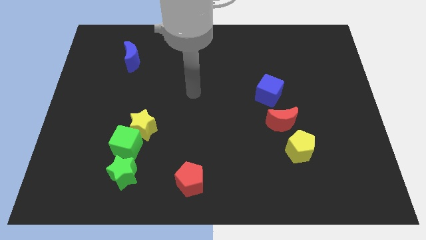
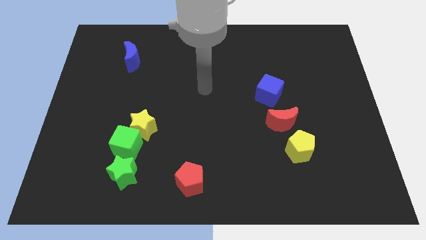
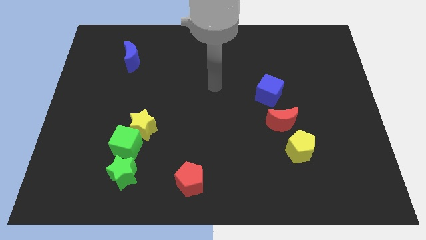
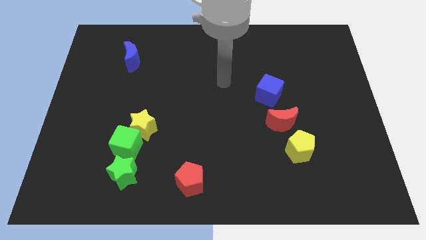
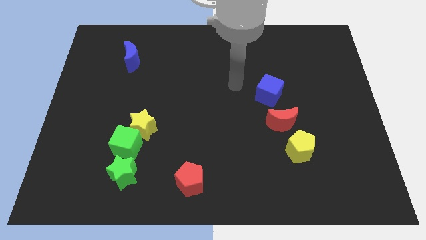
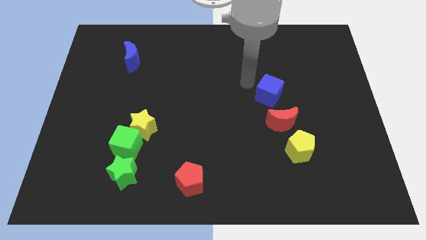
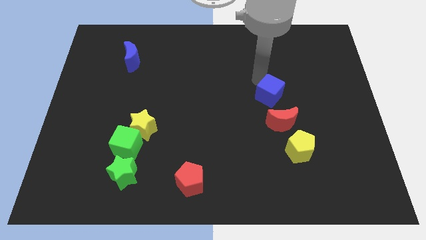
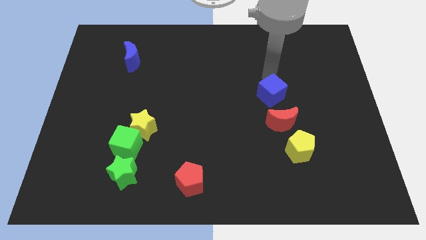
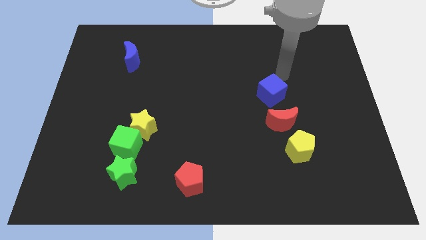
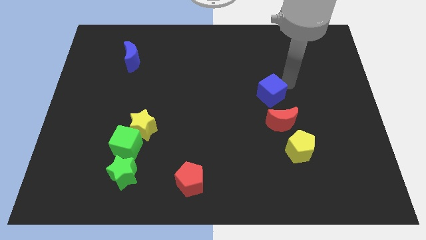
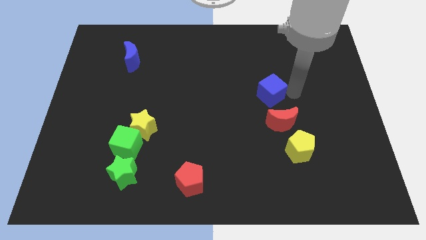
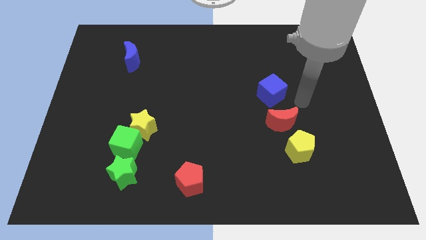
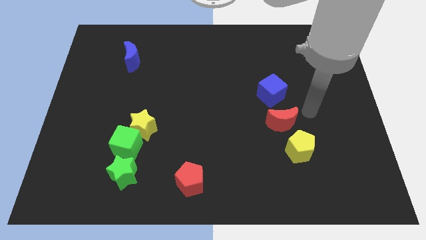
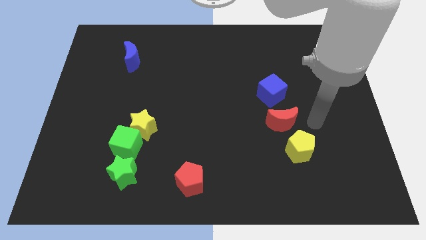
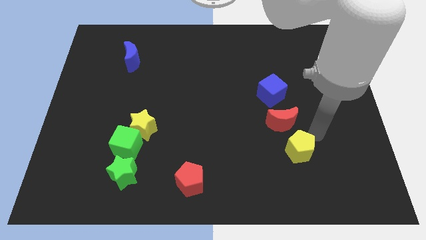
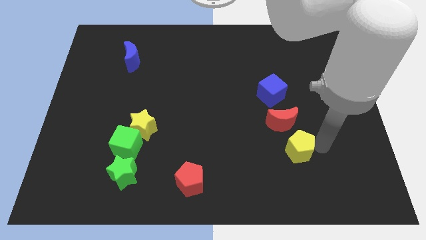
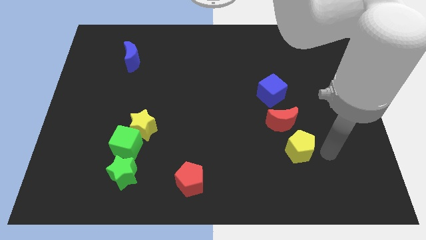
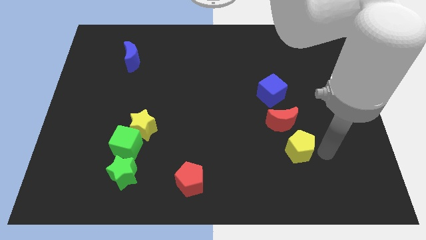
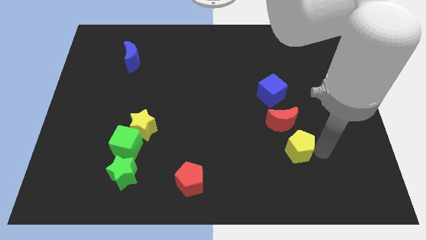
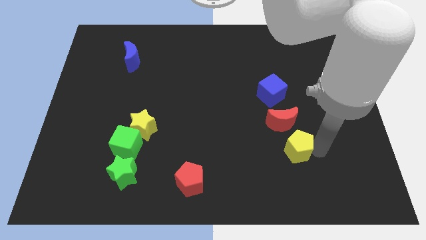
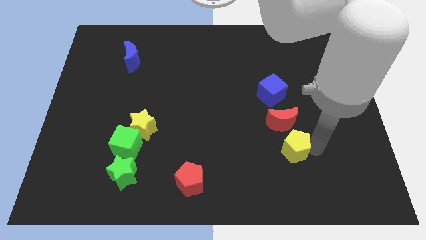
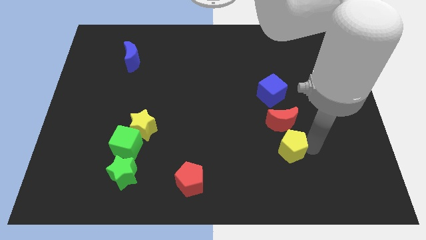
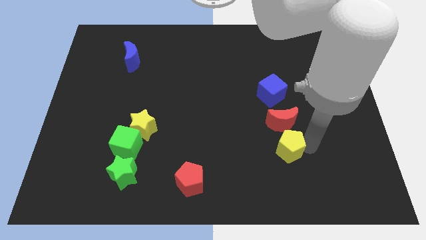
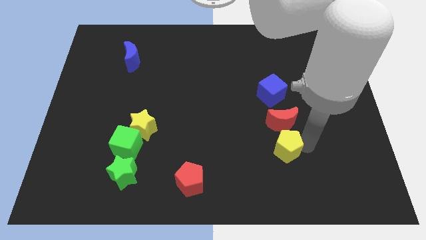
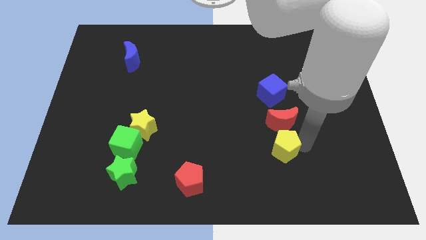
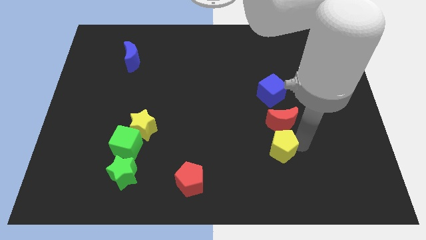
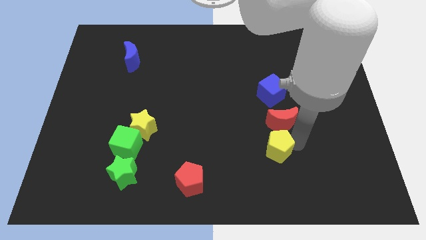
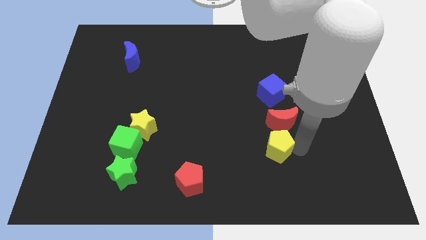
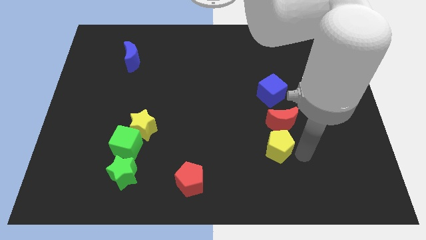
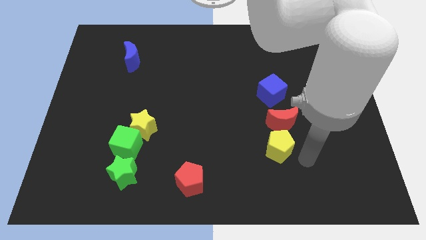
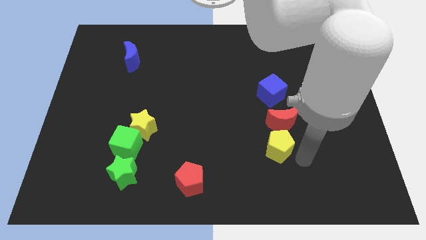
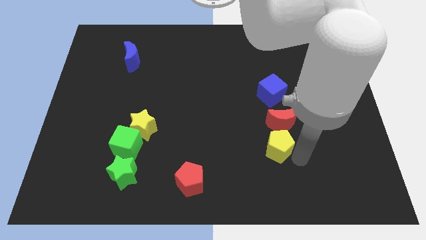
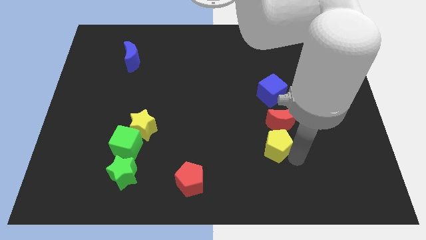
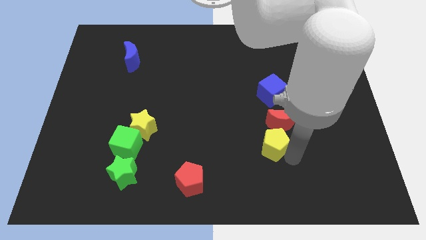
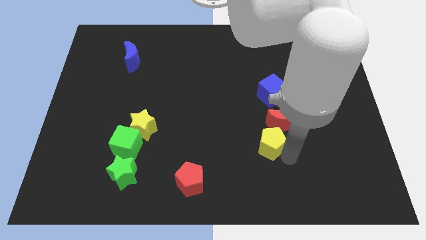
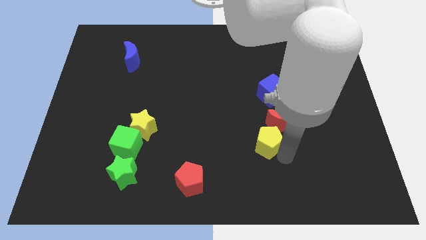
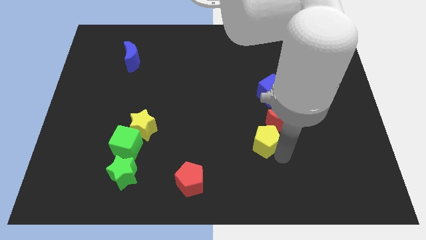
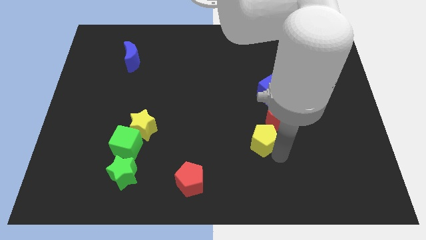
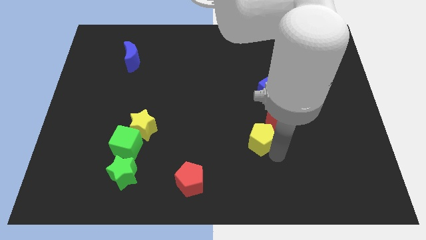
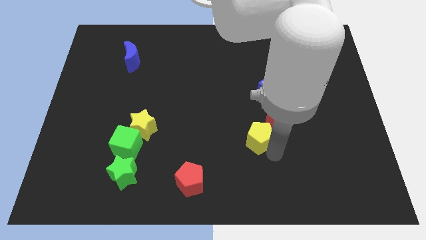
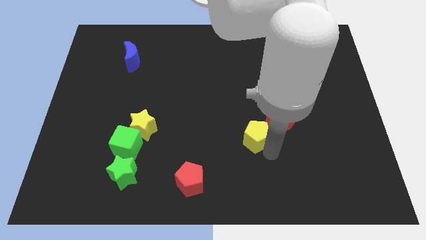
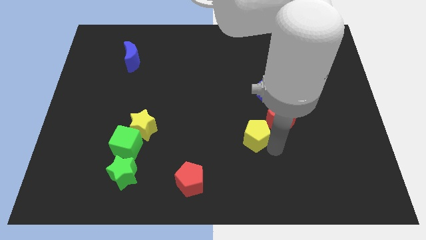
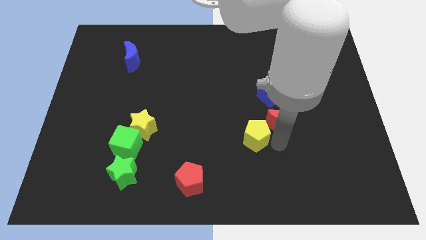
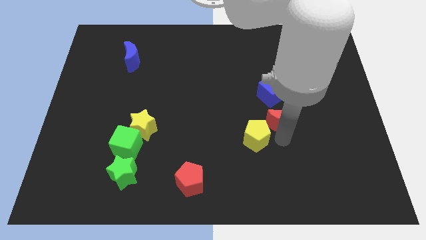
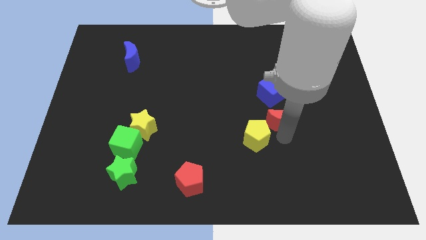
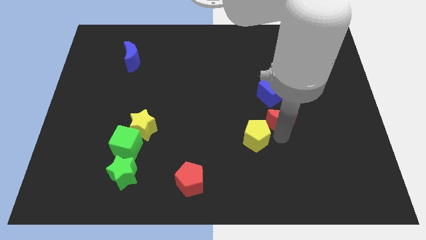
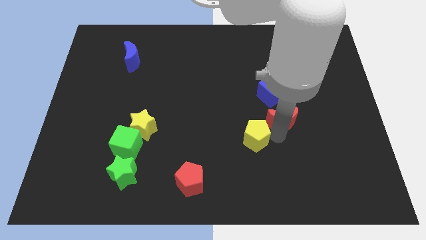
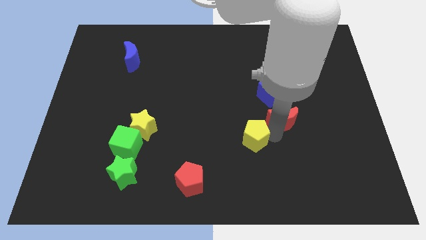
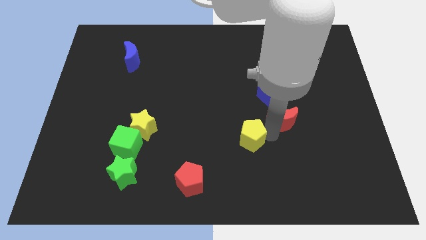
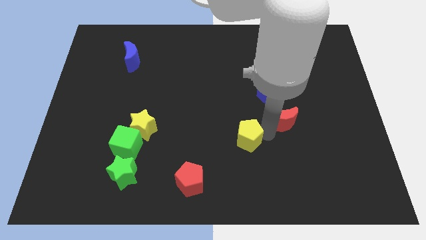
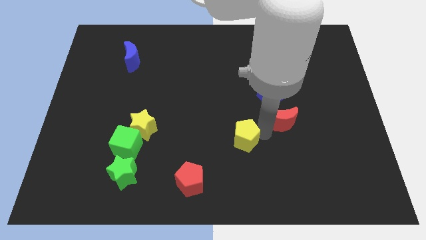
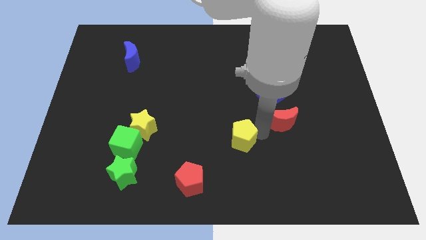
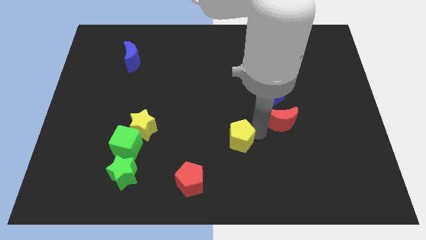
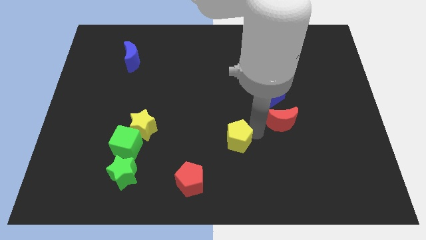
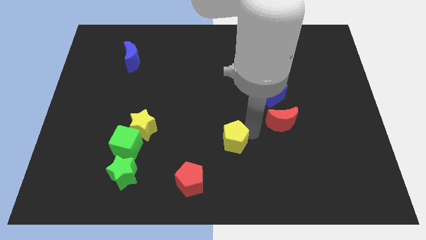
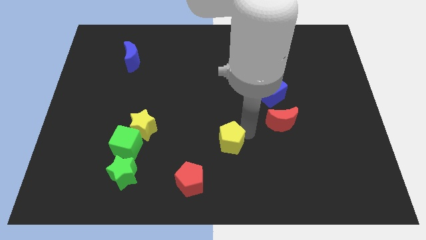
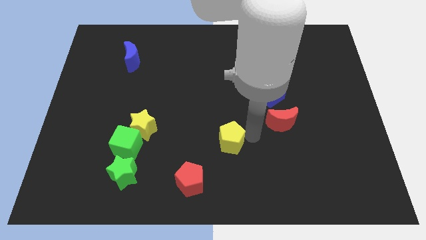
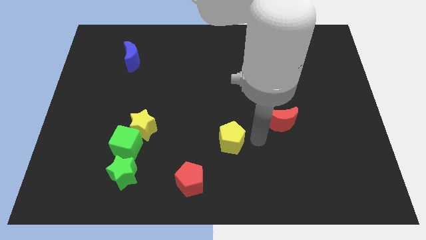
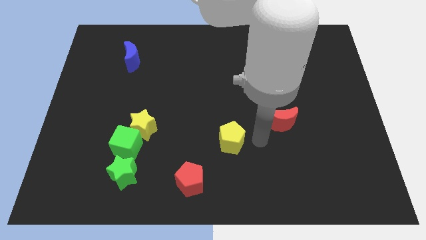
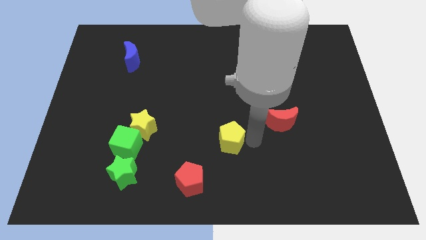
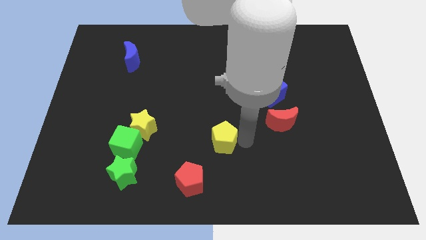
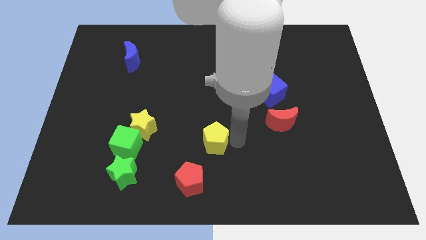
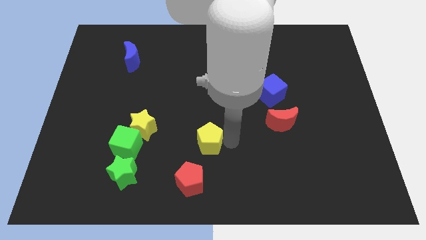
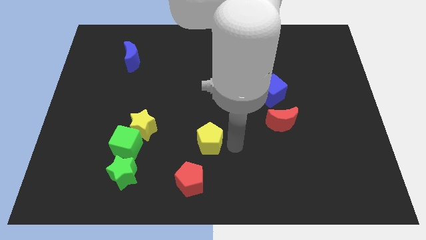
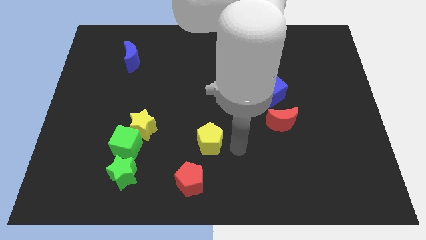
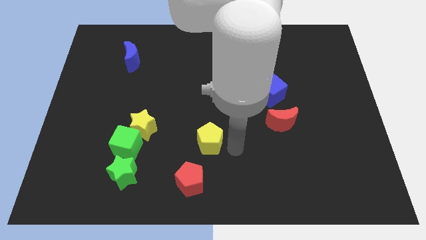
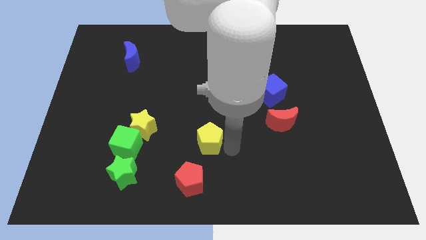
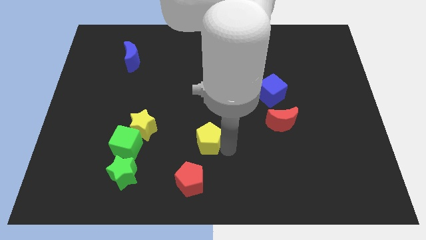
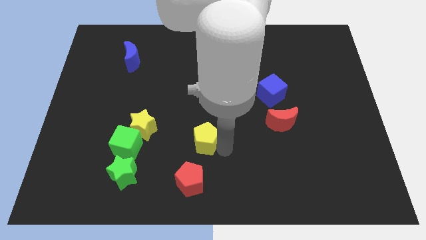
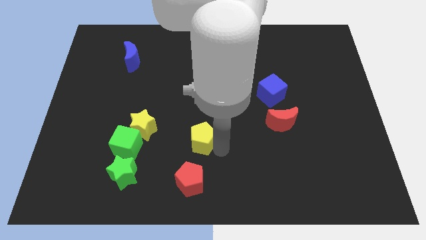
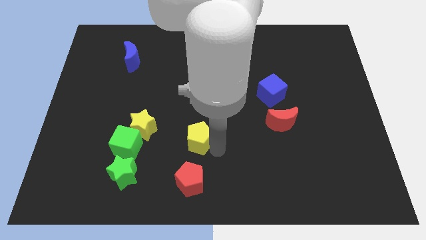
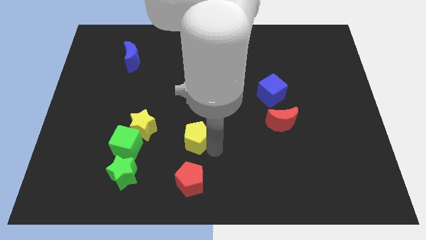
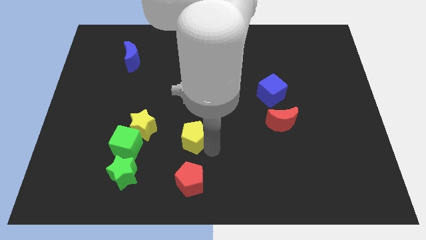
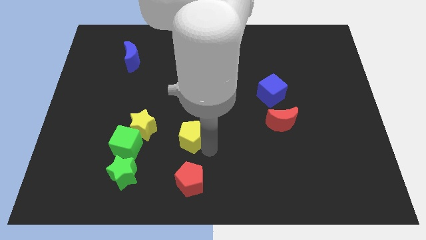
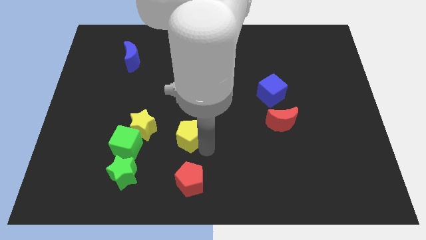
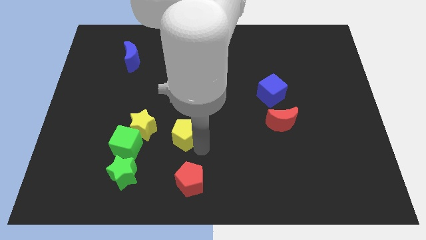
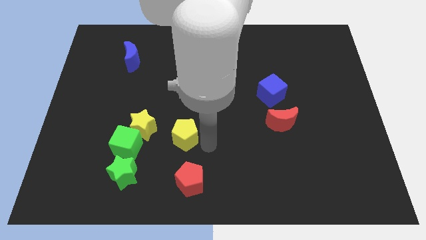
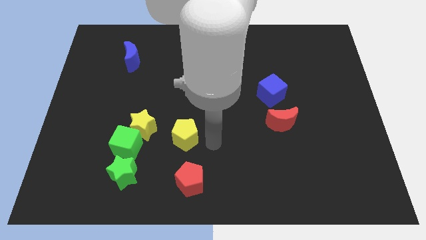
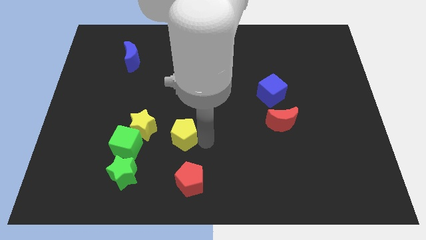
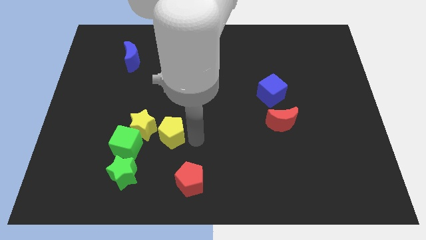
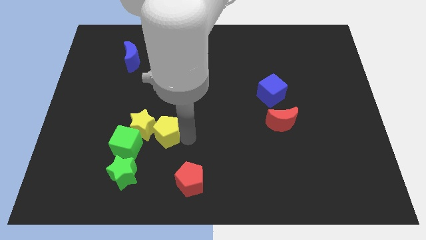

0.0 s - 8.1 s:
push the yellow pentagon to the yellow star
